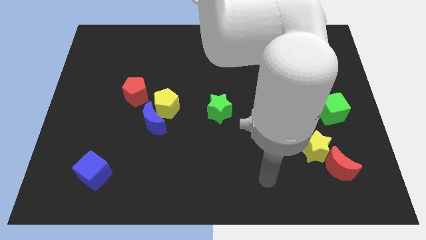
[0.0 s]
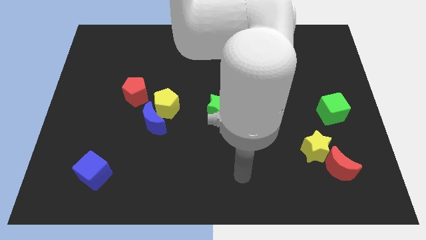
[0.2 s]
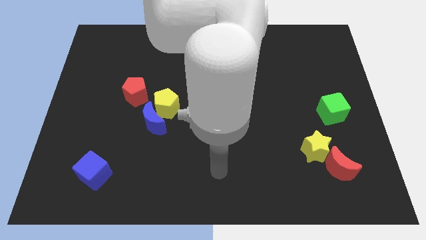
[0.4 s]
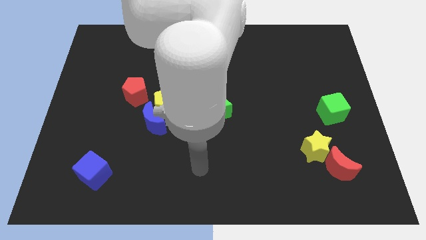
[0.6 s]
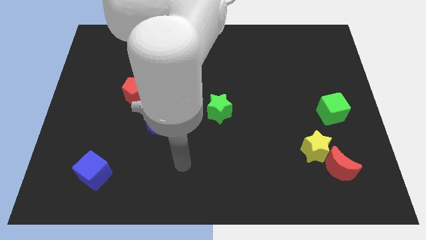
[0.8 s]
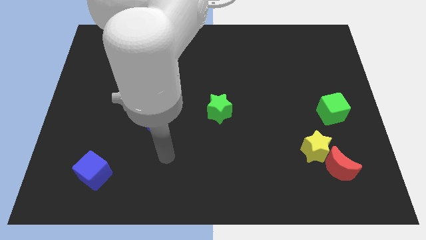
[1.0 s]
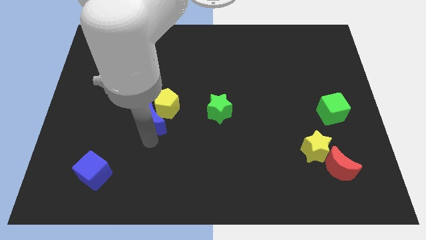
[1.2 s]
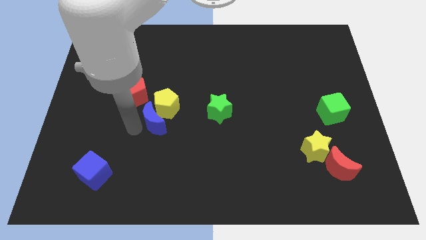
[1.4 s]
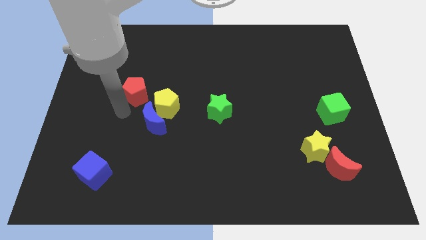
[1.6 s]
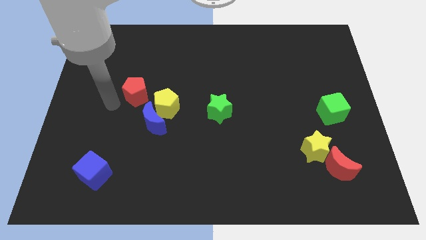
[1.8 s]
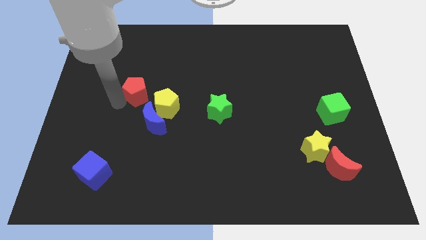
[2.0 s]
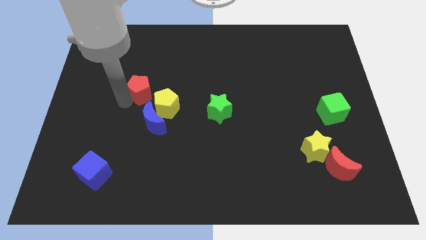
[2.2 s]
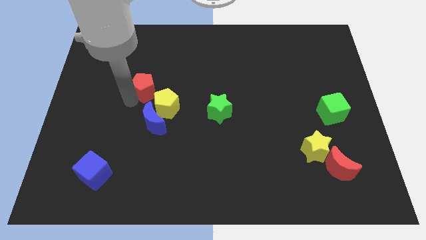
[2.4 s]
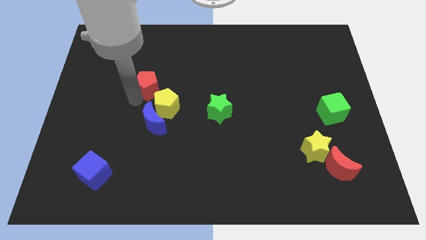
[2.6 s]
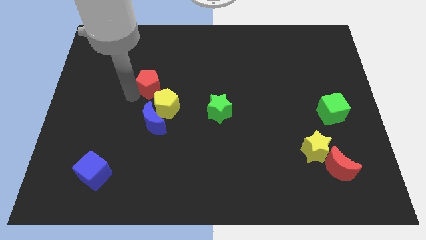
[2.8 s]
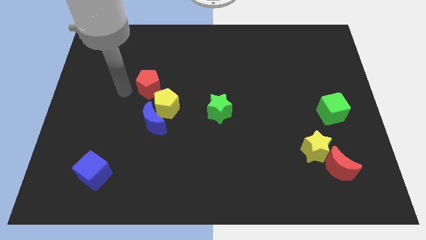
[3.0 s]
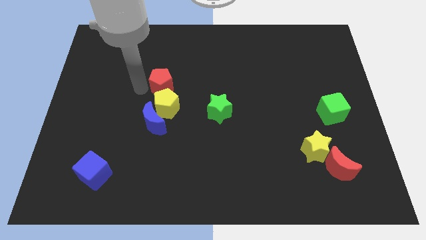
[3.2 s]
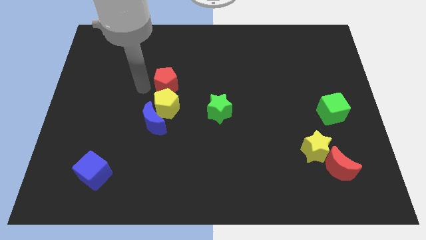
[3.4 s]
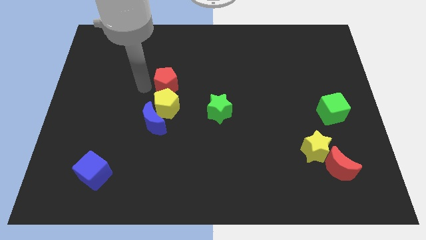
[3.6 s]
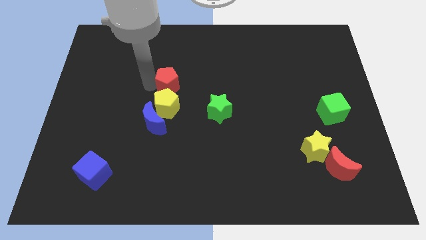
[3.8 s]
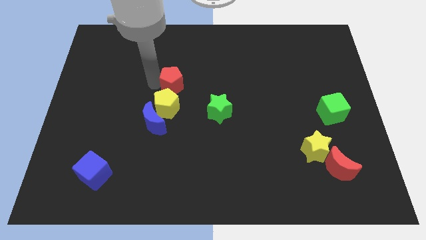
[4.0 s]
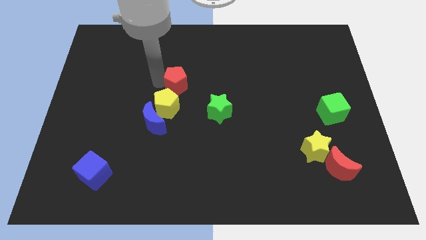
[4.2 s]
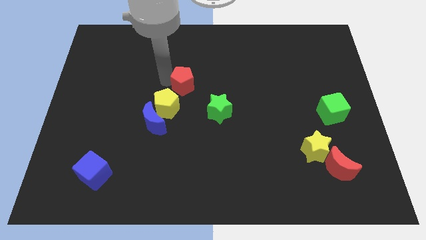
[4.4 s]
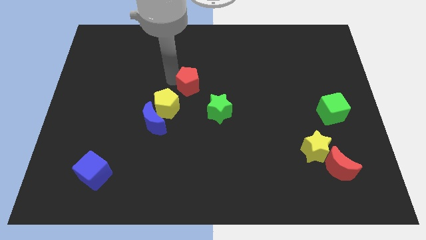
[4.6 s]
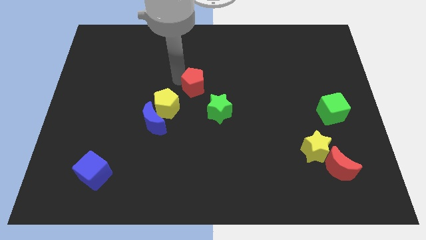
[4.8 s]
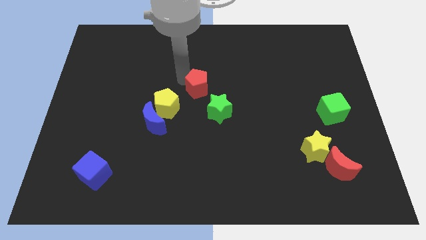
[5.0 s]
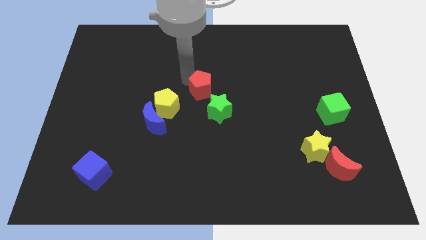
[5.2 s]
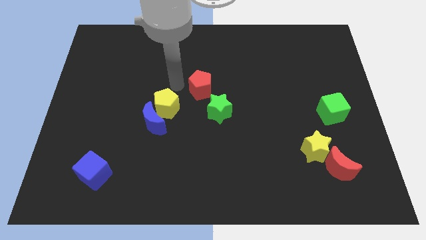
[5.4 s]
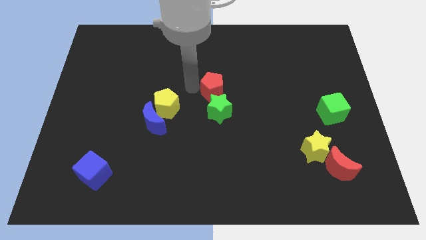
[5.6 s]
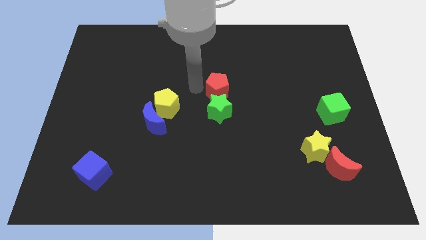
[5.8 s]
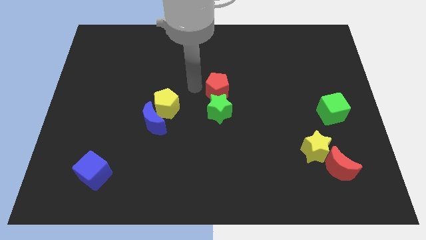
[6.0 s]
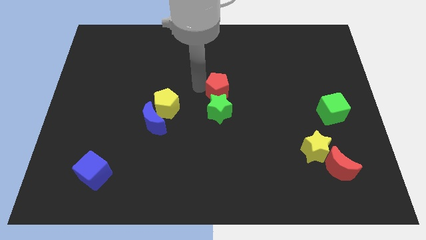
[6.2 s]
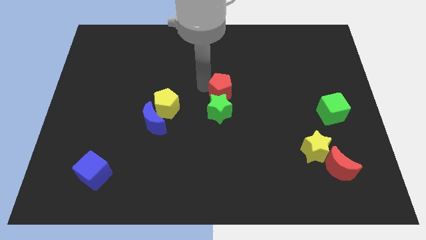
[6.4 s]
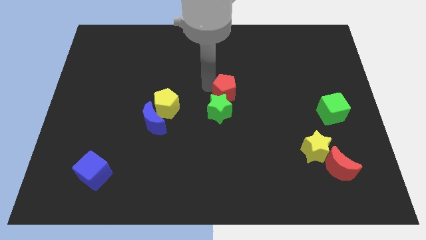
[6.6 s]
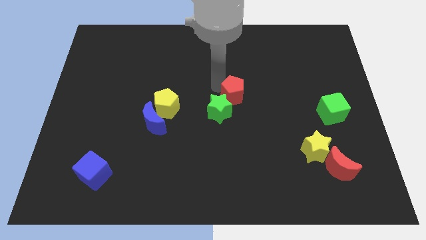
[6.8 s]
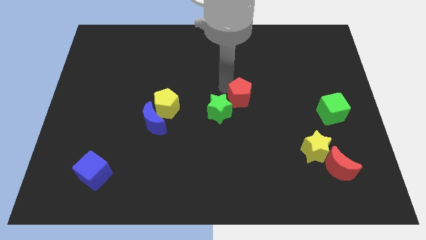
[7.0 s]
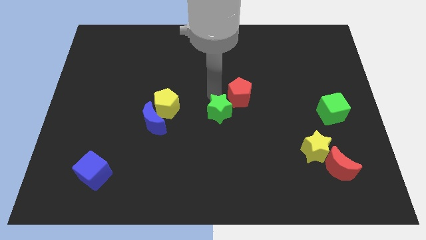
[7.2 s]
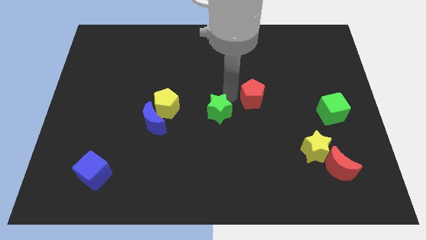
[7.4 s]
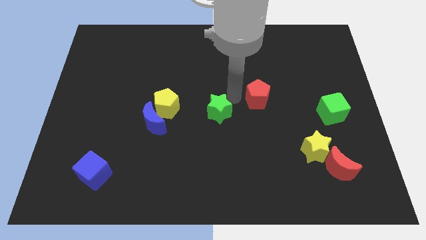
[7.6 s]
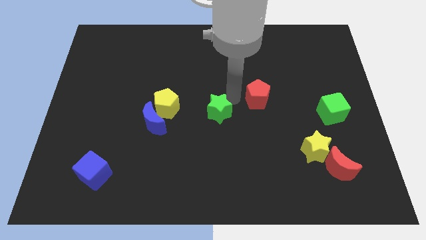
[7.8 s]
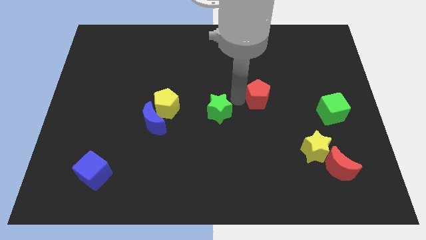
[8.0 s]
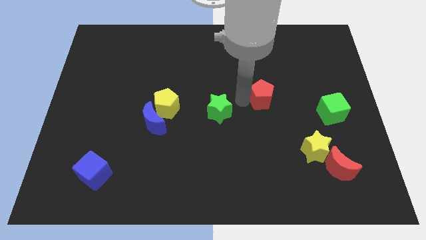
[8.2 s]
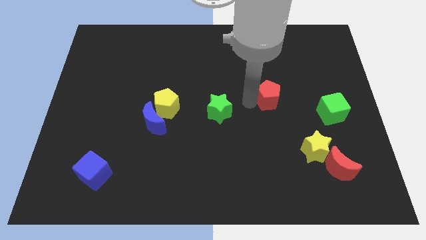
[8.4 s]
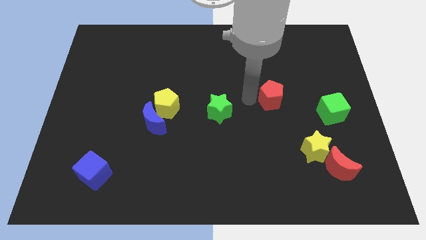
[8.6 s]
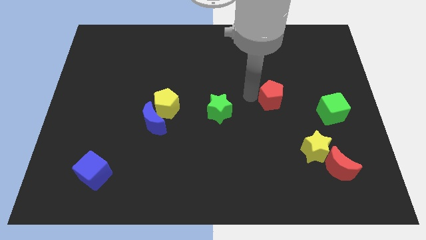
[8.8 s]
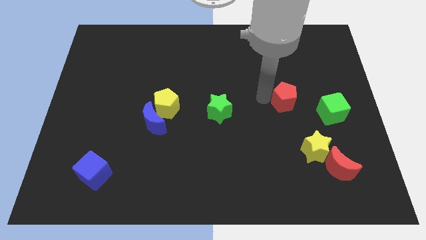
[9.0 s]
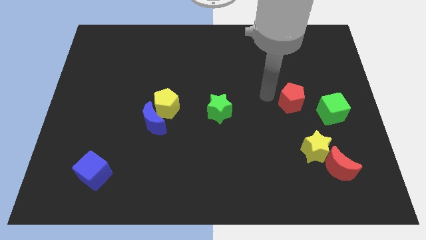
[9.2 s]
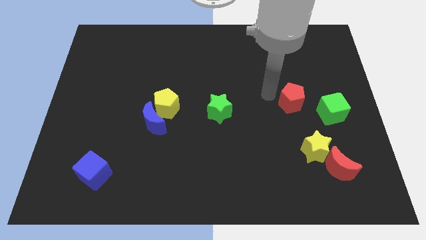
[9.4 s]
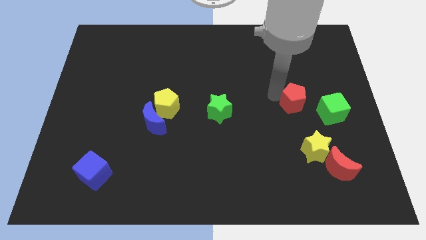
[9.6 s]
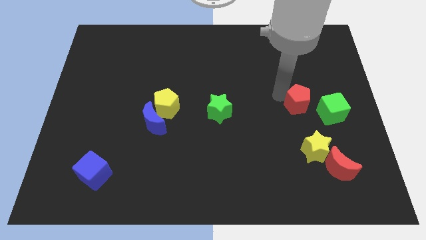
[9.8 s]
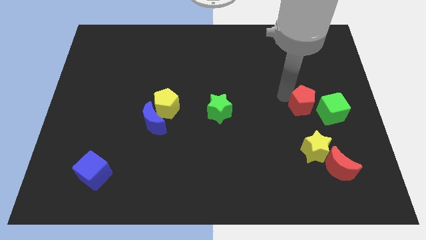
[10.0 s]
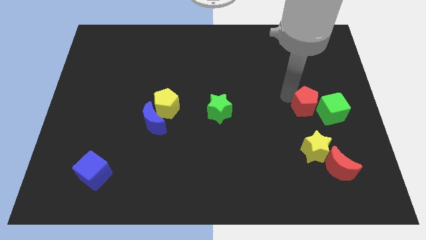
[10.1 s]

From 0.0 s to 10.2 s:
put the red pentagon next to the green cube

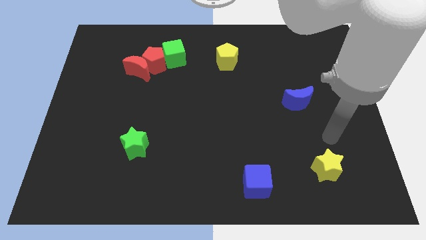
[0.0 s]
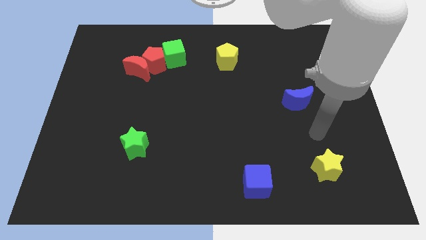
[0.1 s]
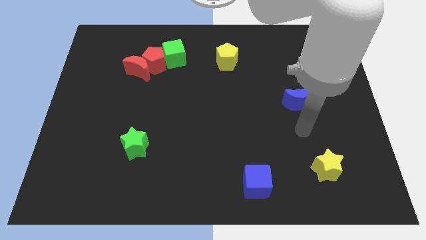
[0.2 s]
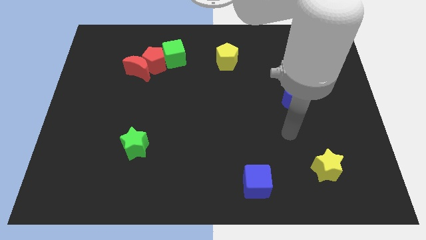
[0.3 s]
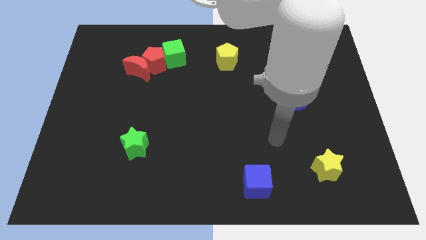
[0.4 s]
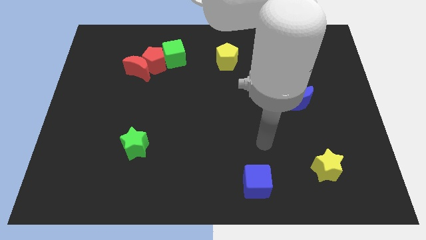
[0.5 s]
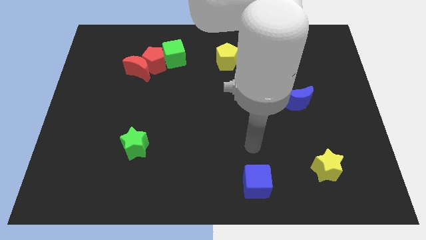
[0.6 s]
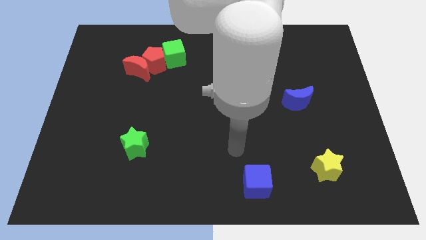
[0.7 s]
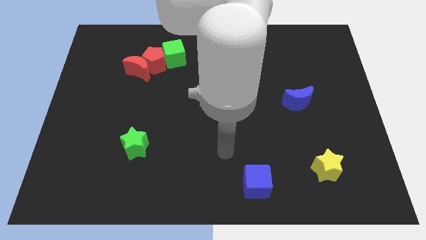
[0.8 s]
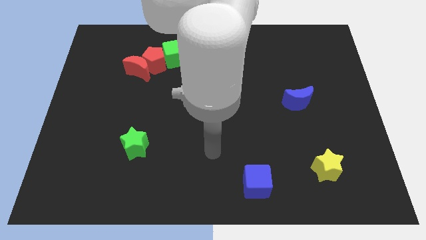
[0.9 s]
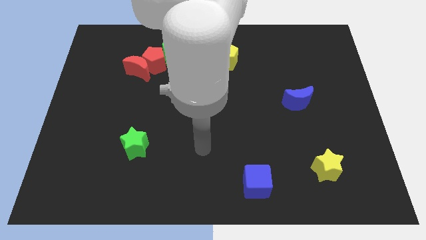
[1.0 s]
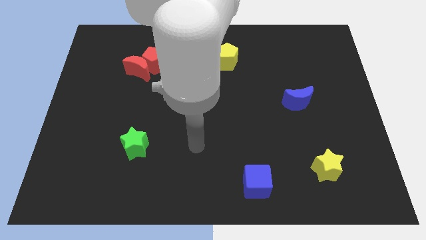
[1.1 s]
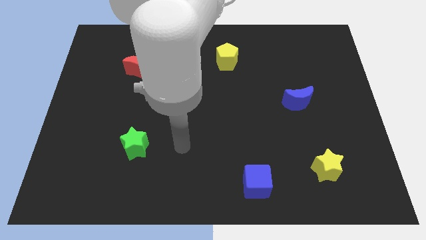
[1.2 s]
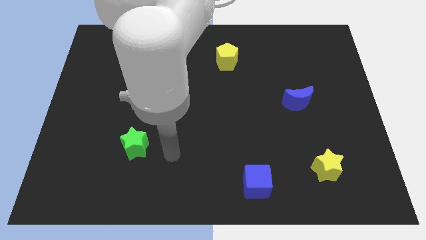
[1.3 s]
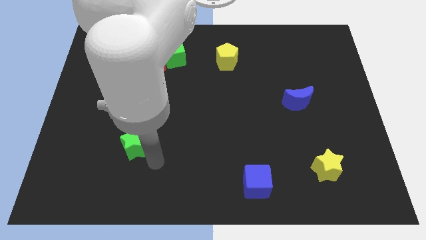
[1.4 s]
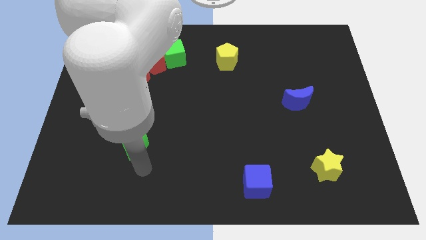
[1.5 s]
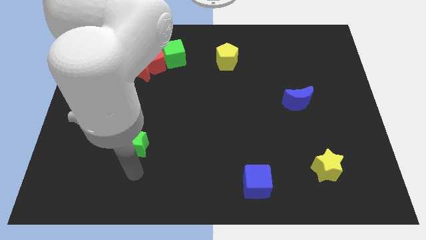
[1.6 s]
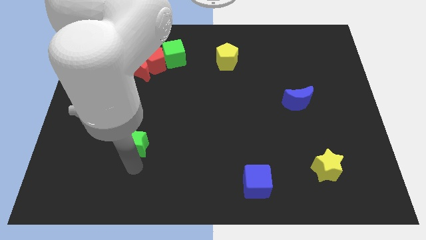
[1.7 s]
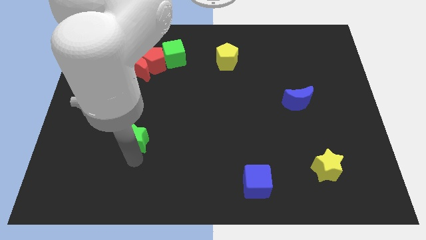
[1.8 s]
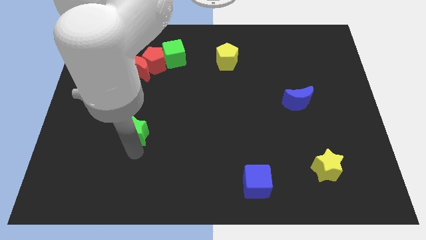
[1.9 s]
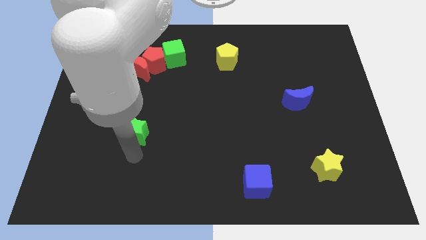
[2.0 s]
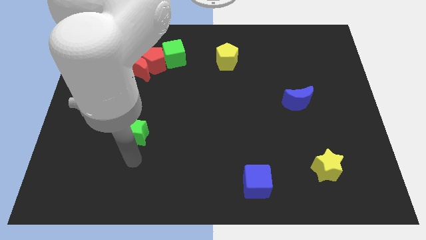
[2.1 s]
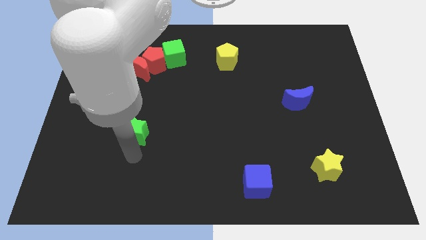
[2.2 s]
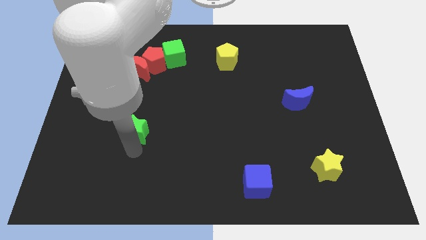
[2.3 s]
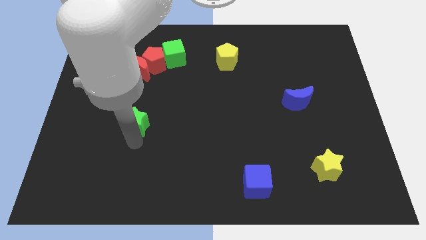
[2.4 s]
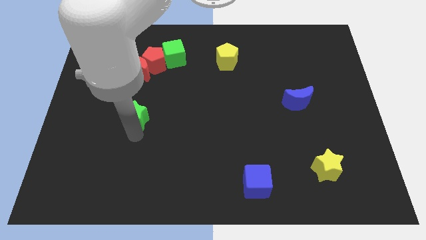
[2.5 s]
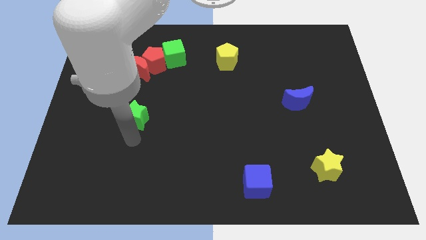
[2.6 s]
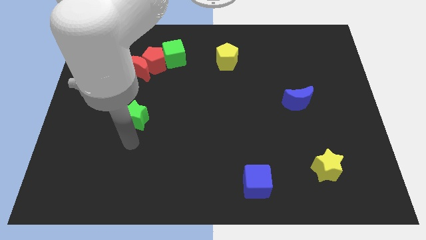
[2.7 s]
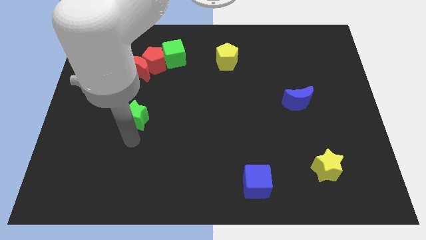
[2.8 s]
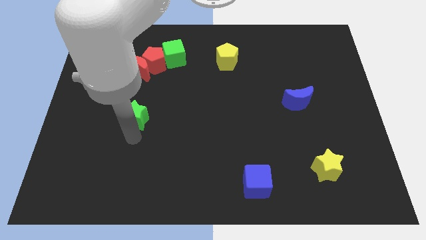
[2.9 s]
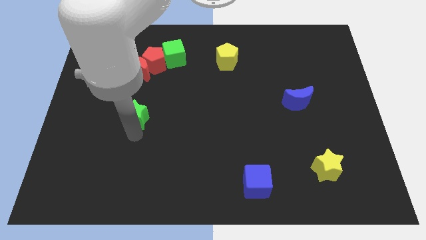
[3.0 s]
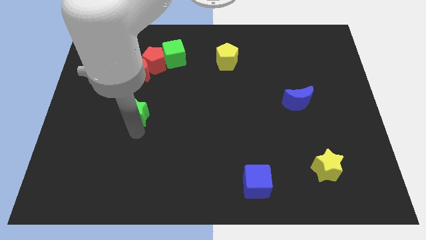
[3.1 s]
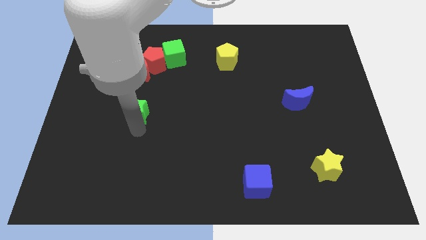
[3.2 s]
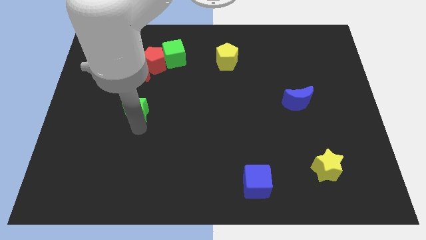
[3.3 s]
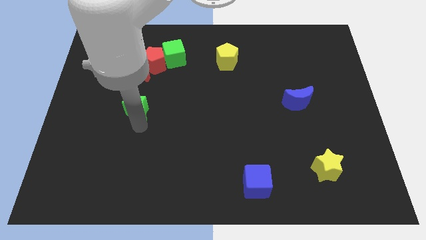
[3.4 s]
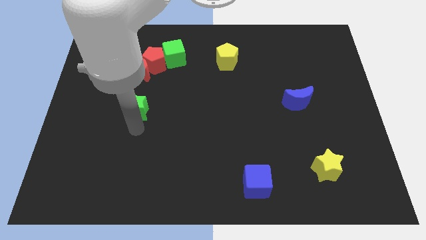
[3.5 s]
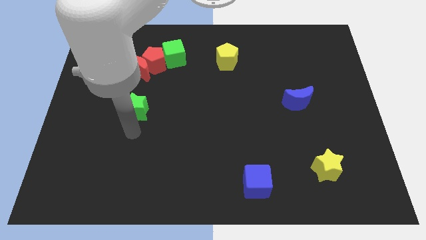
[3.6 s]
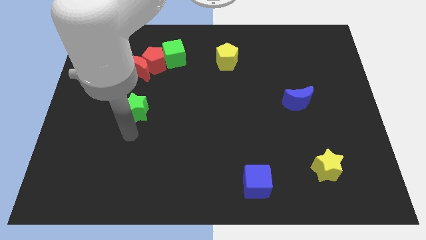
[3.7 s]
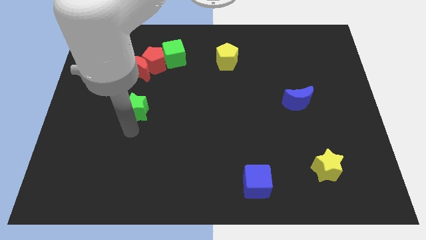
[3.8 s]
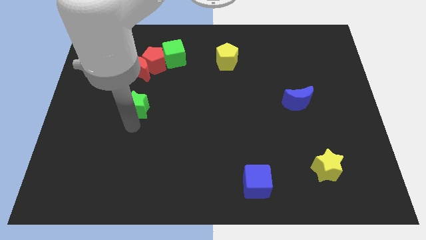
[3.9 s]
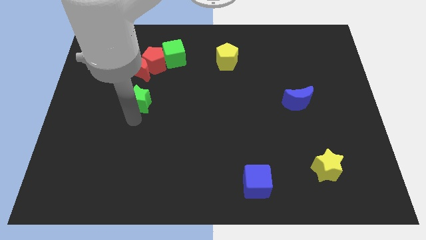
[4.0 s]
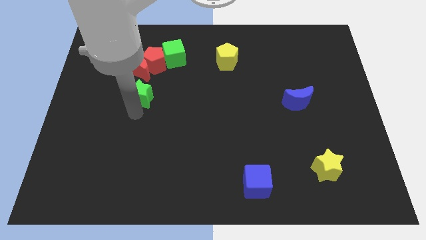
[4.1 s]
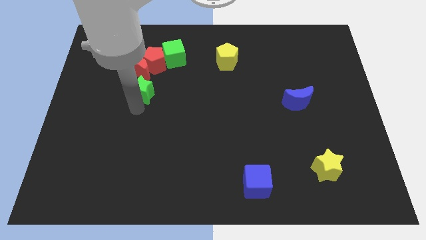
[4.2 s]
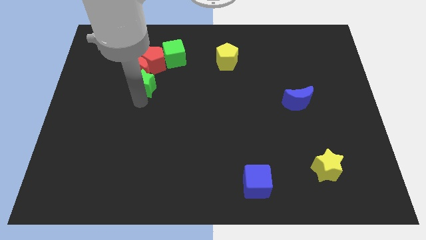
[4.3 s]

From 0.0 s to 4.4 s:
move the green star to the red moon
